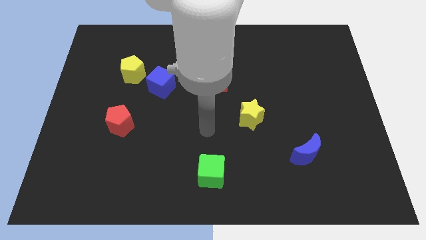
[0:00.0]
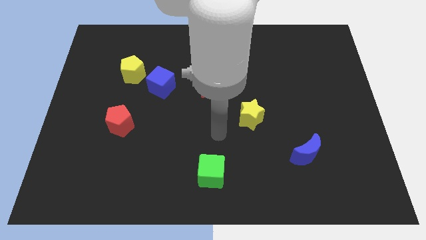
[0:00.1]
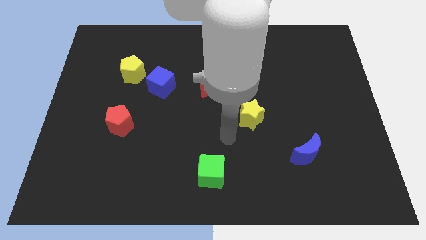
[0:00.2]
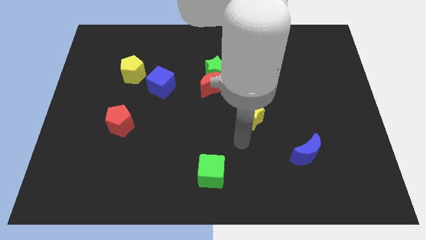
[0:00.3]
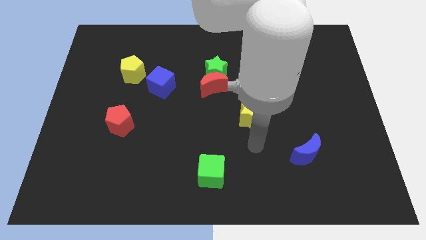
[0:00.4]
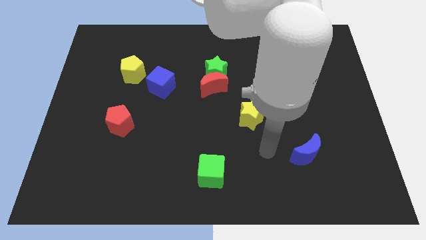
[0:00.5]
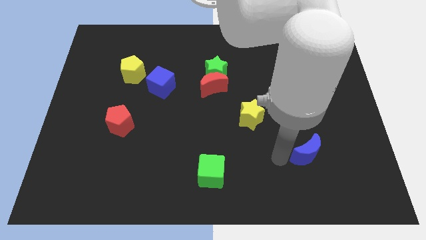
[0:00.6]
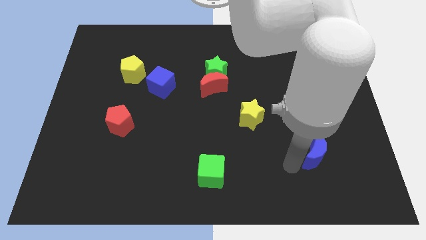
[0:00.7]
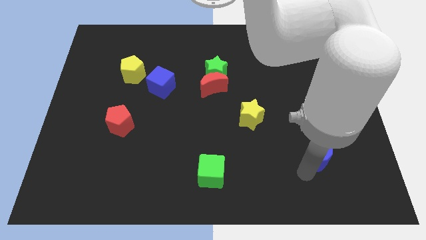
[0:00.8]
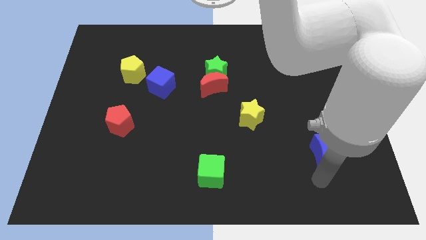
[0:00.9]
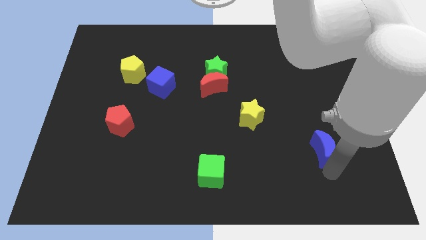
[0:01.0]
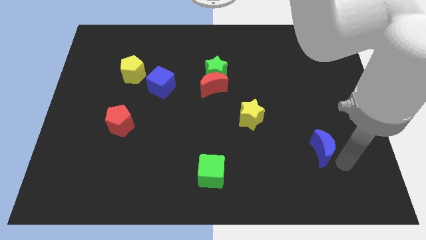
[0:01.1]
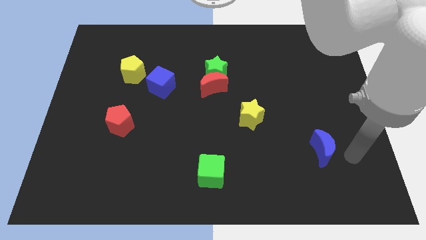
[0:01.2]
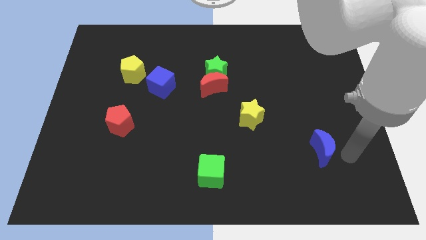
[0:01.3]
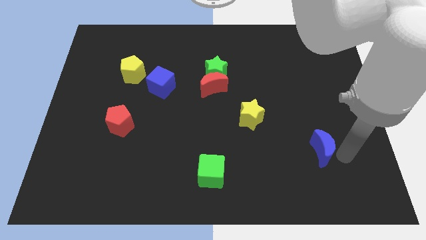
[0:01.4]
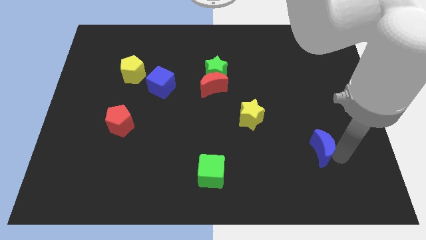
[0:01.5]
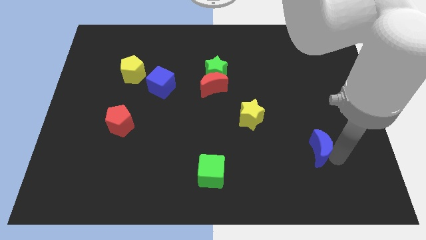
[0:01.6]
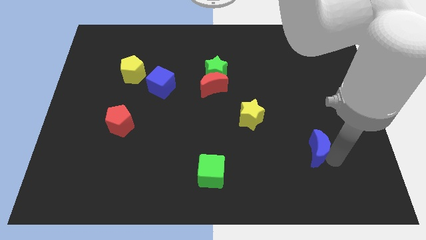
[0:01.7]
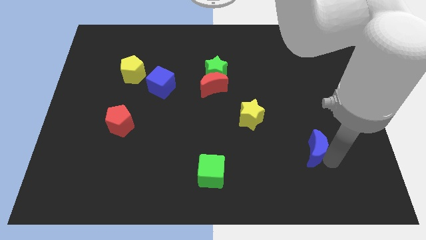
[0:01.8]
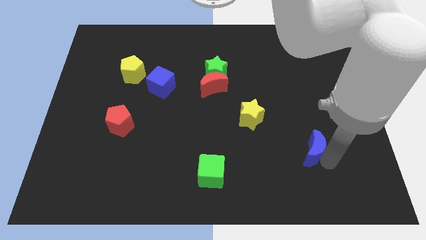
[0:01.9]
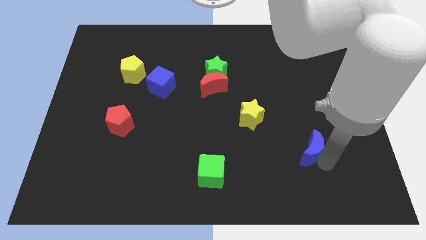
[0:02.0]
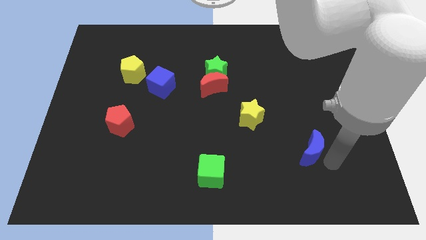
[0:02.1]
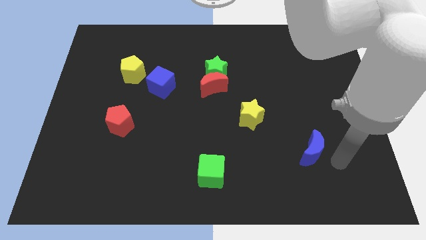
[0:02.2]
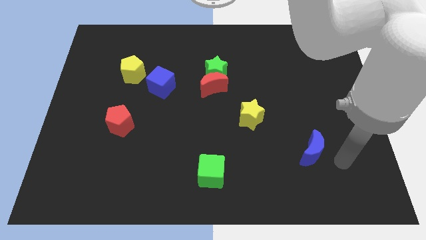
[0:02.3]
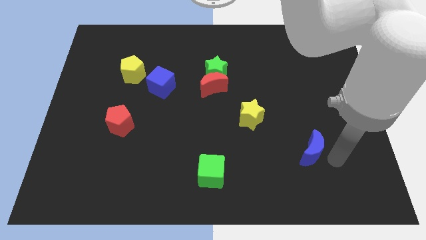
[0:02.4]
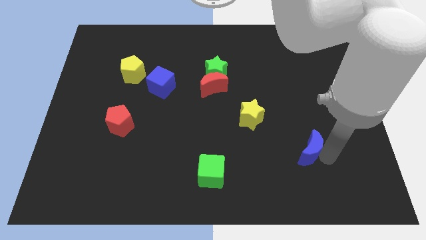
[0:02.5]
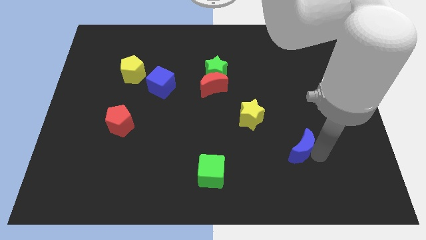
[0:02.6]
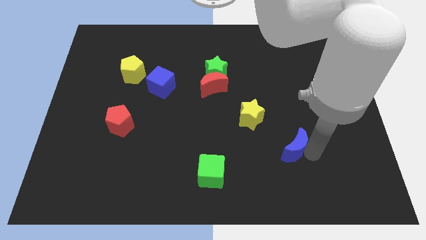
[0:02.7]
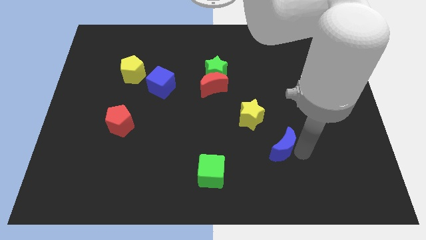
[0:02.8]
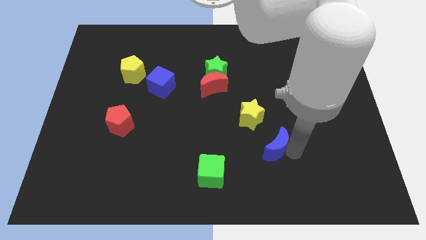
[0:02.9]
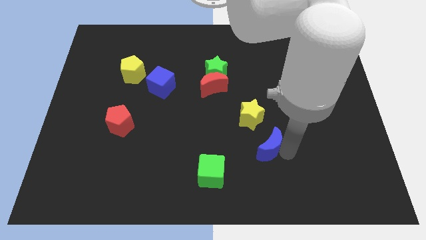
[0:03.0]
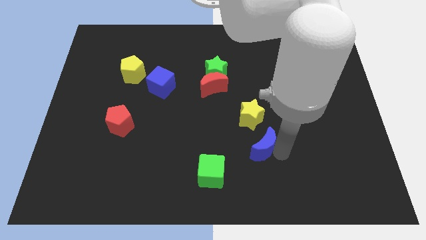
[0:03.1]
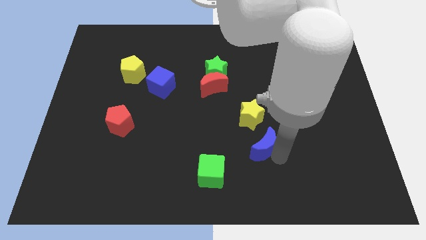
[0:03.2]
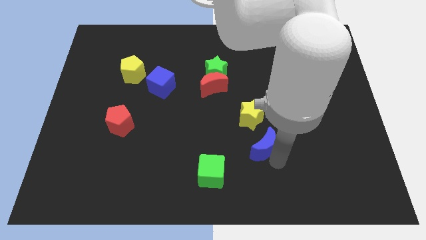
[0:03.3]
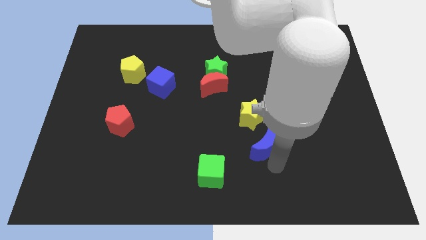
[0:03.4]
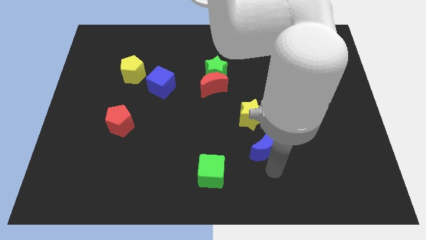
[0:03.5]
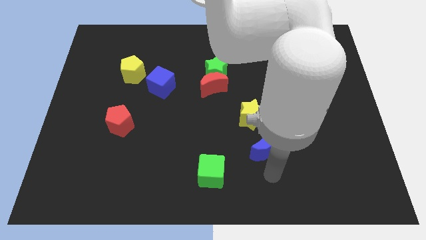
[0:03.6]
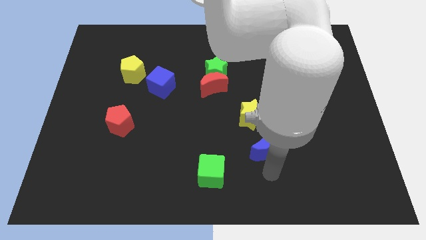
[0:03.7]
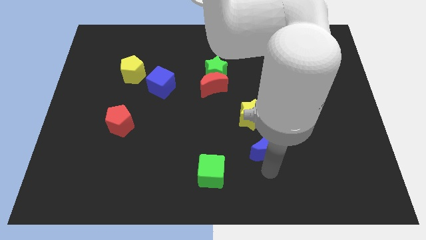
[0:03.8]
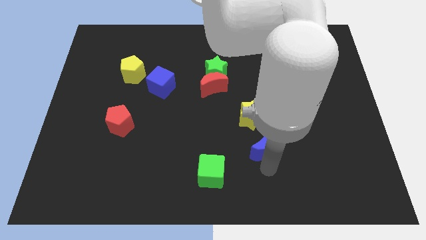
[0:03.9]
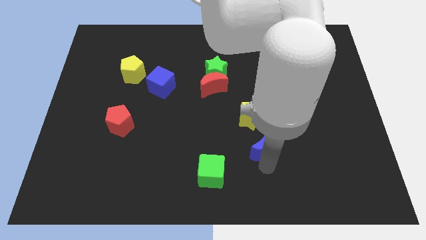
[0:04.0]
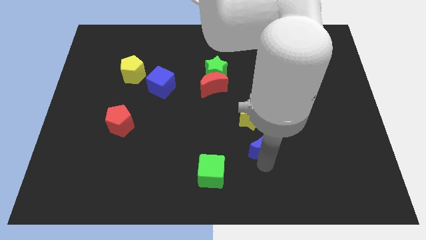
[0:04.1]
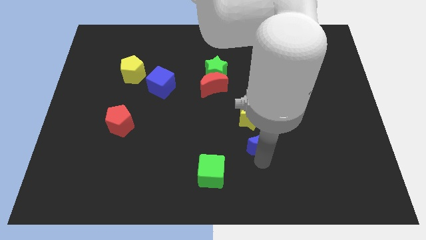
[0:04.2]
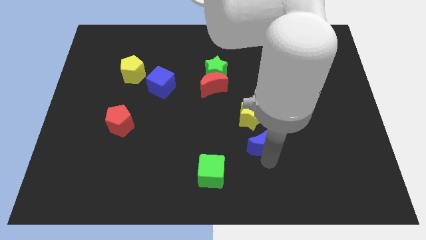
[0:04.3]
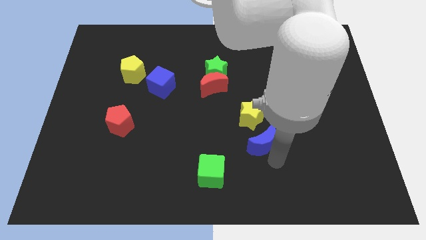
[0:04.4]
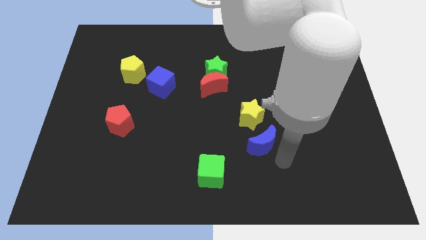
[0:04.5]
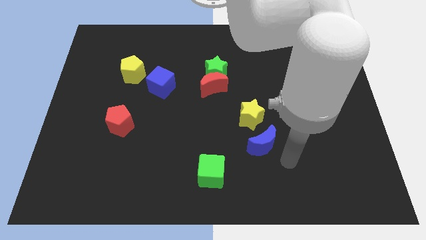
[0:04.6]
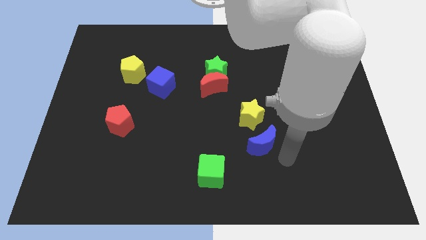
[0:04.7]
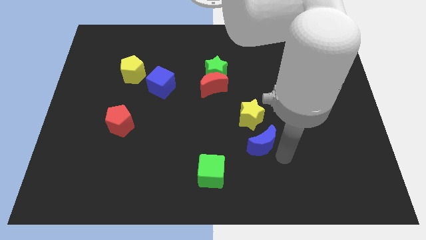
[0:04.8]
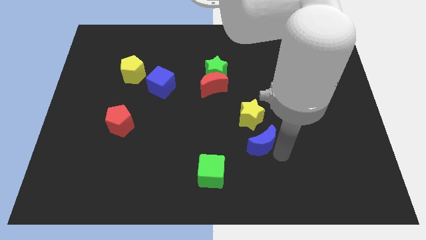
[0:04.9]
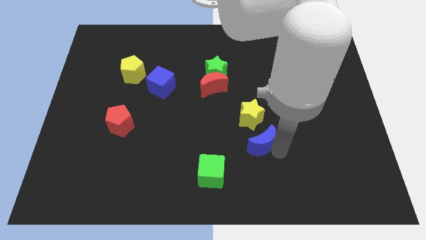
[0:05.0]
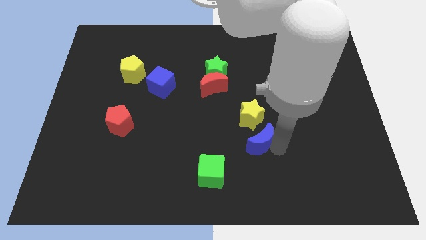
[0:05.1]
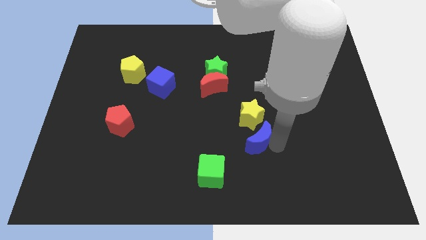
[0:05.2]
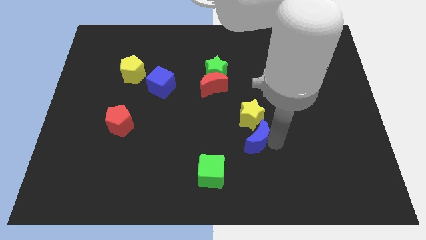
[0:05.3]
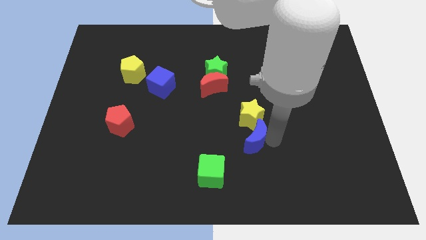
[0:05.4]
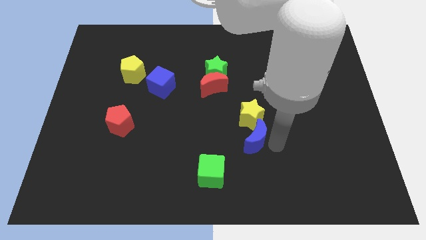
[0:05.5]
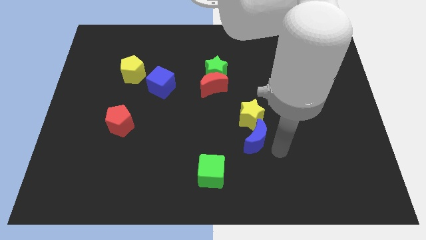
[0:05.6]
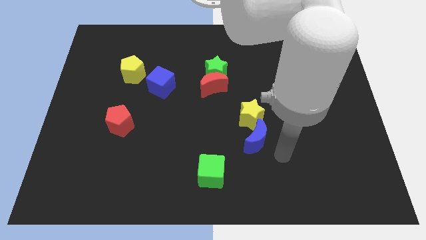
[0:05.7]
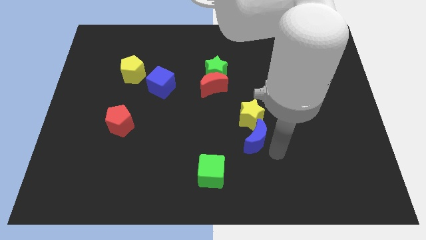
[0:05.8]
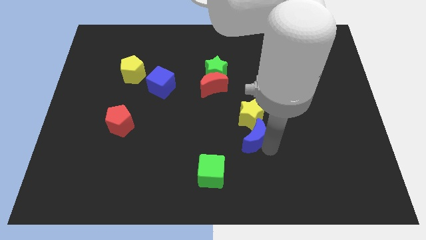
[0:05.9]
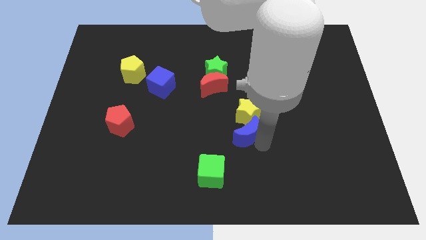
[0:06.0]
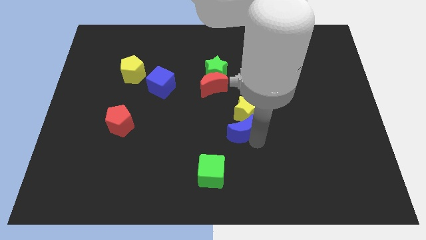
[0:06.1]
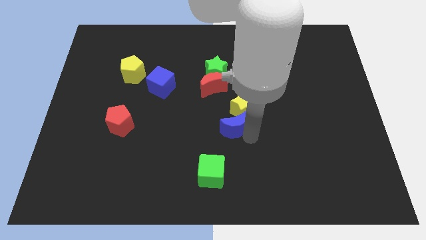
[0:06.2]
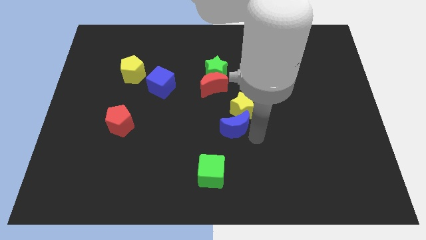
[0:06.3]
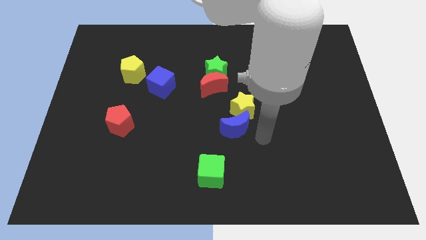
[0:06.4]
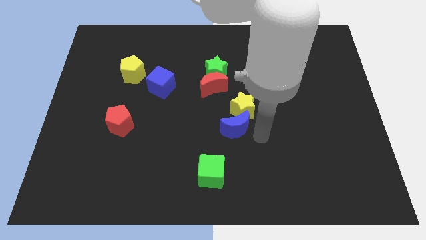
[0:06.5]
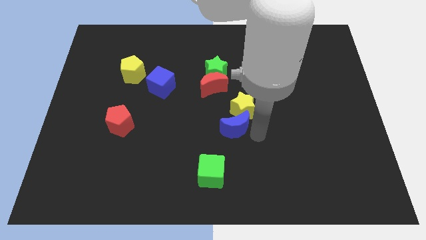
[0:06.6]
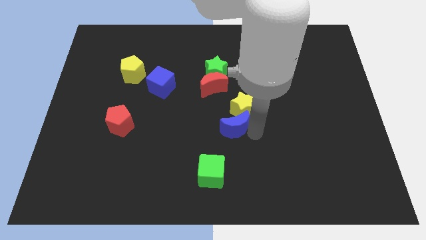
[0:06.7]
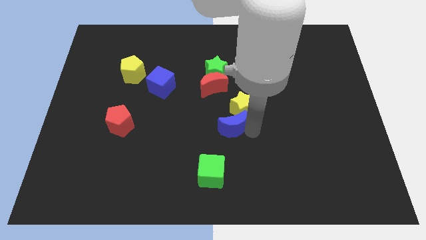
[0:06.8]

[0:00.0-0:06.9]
put the blue moon to the bottom side of the red moon

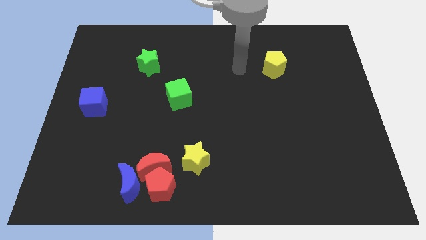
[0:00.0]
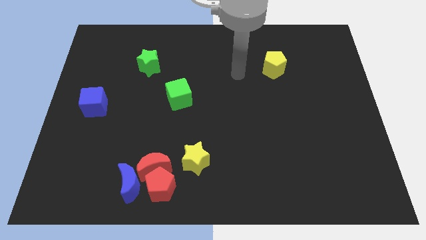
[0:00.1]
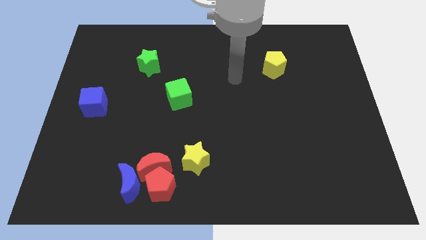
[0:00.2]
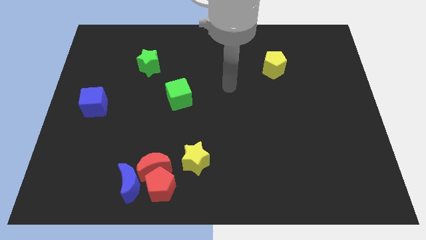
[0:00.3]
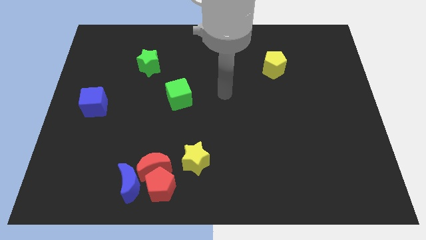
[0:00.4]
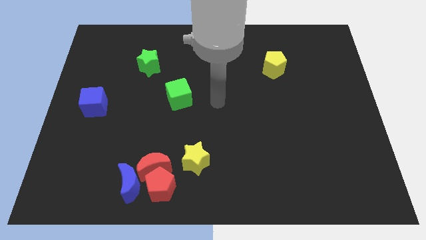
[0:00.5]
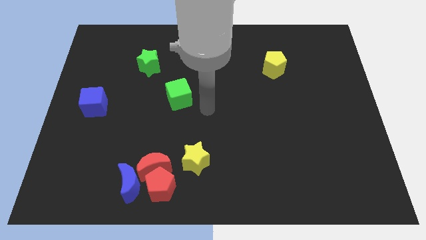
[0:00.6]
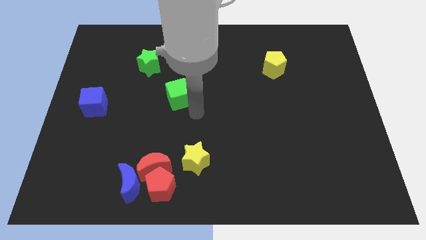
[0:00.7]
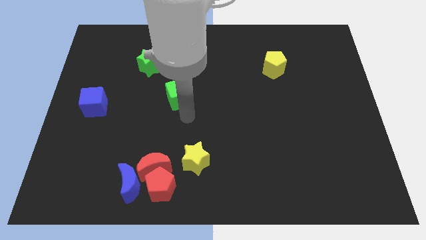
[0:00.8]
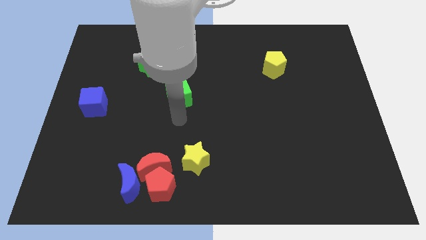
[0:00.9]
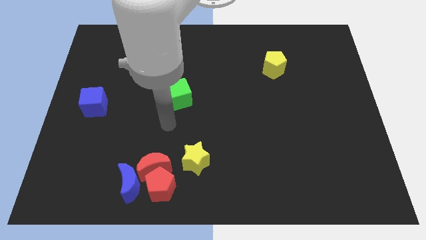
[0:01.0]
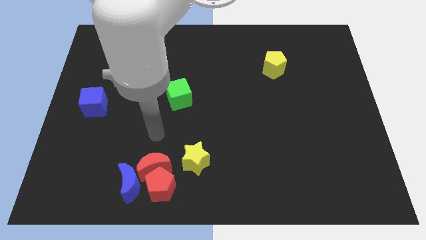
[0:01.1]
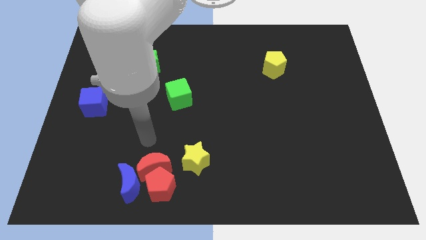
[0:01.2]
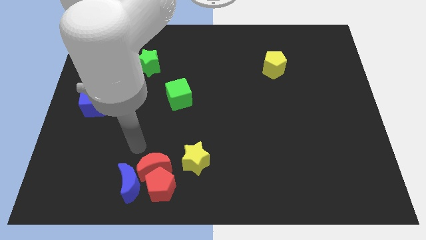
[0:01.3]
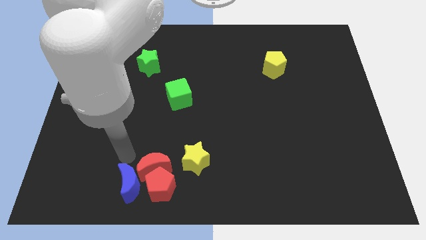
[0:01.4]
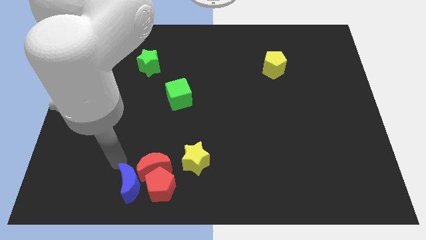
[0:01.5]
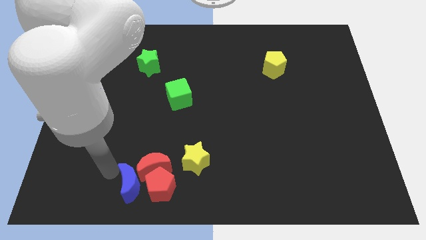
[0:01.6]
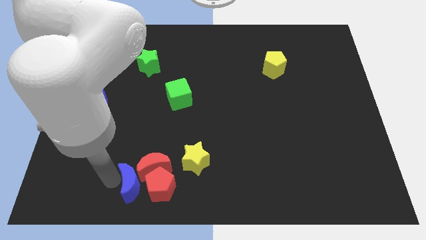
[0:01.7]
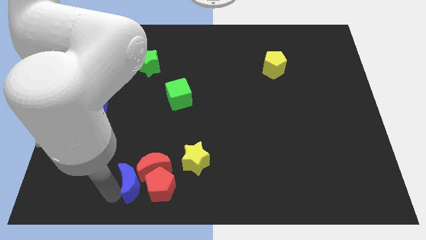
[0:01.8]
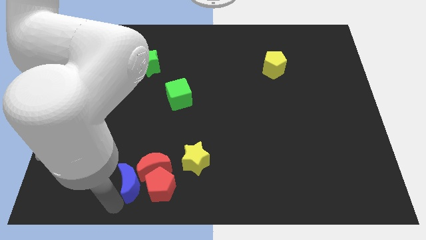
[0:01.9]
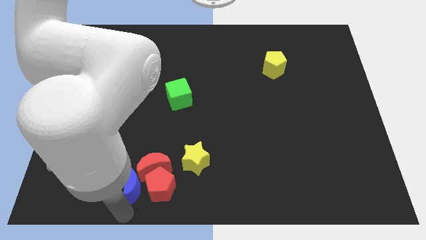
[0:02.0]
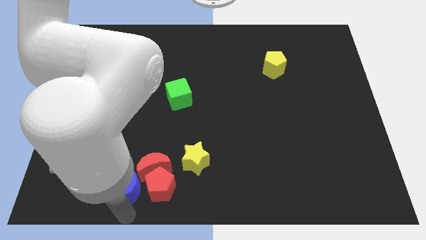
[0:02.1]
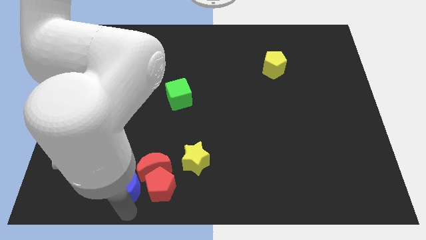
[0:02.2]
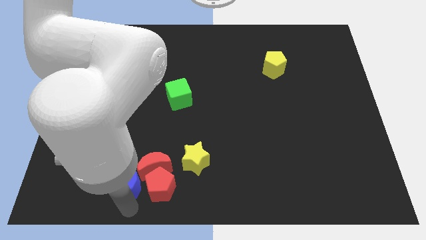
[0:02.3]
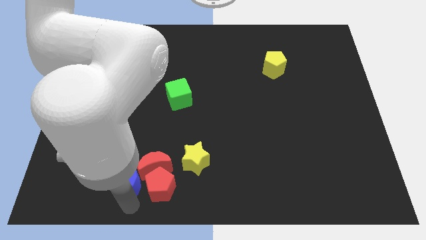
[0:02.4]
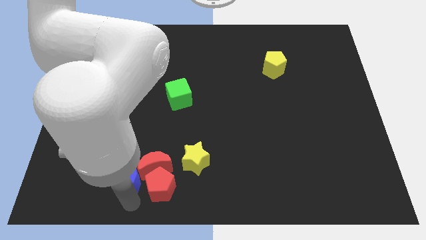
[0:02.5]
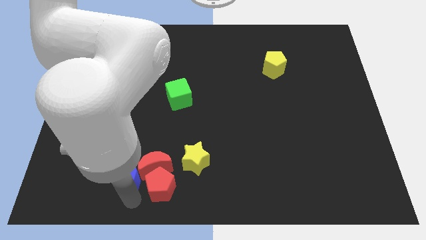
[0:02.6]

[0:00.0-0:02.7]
move the blue moon to the top left side of the red moon
